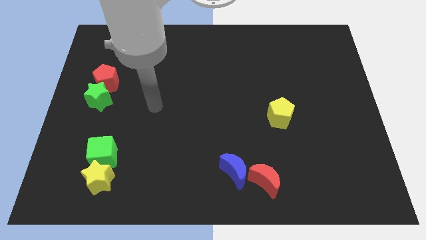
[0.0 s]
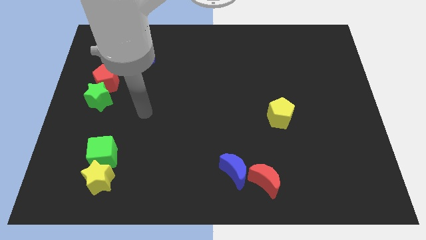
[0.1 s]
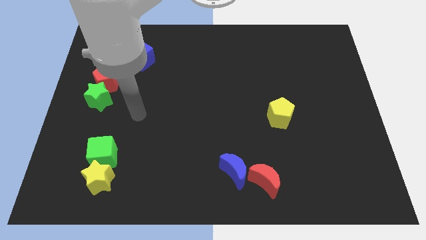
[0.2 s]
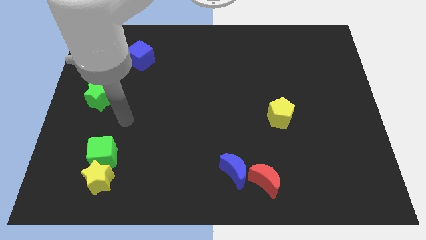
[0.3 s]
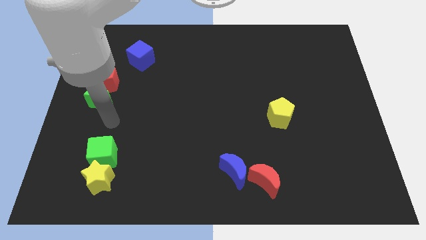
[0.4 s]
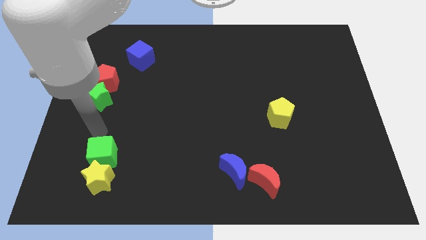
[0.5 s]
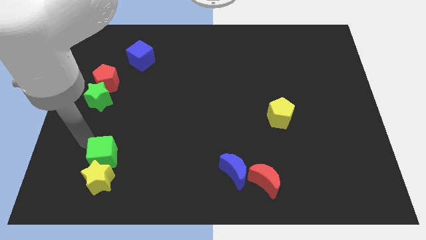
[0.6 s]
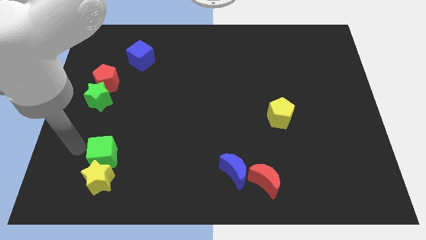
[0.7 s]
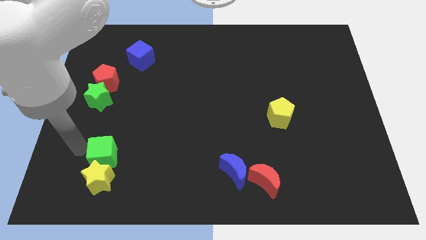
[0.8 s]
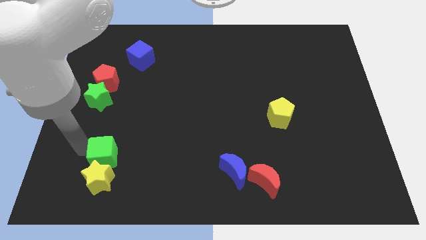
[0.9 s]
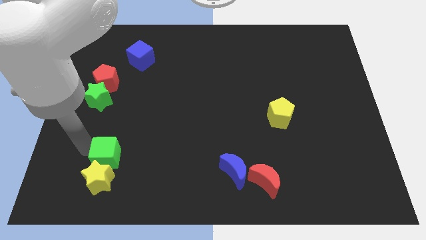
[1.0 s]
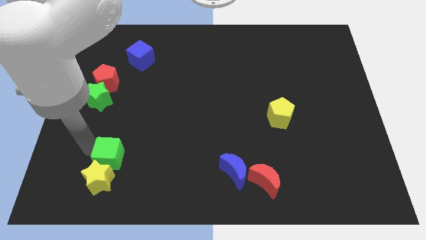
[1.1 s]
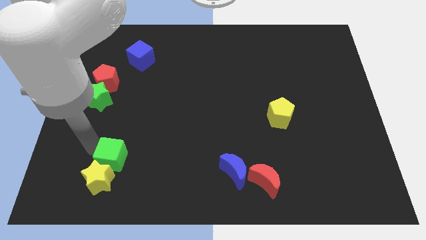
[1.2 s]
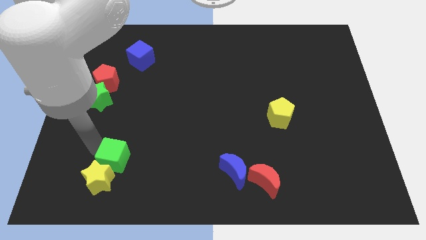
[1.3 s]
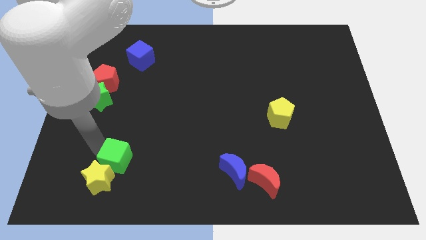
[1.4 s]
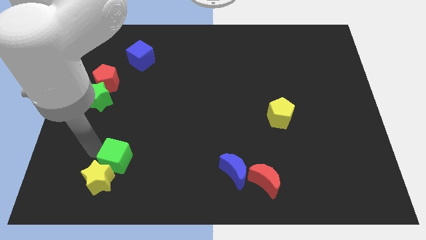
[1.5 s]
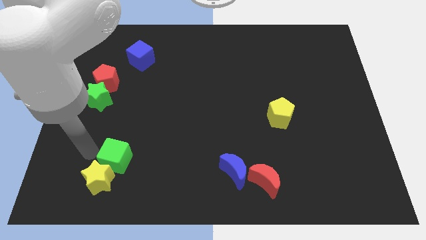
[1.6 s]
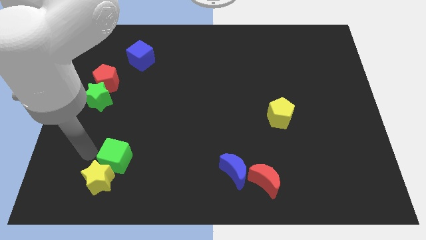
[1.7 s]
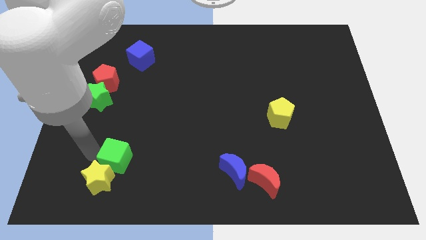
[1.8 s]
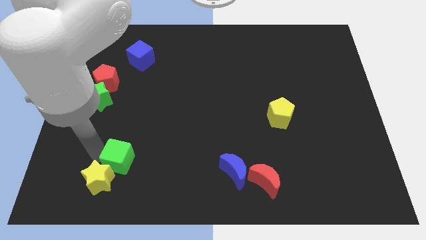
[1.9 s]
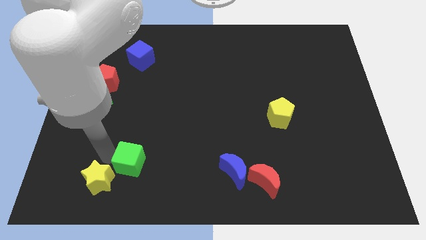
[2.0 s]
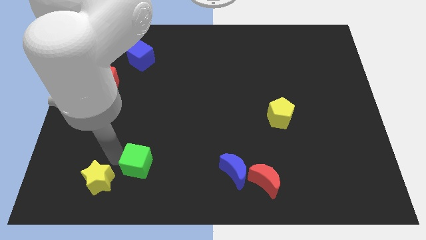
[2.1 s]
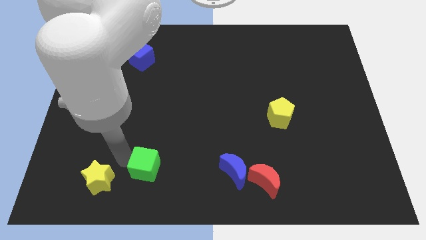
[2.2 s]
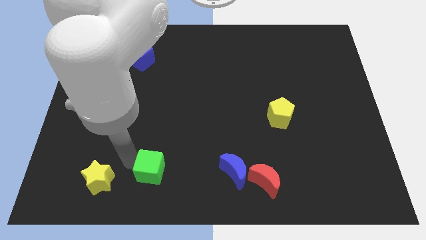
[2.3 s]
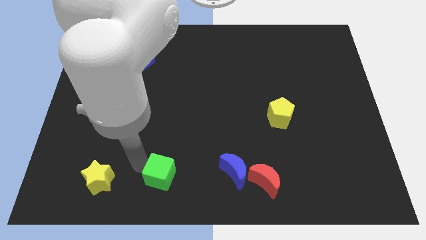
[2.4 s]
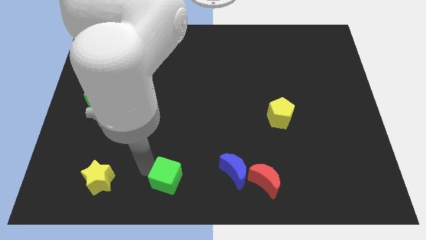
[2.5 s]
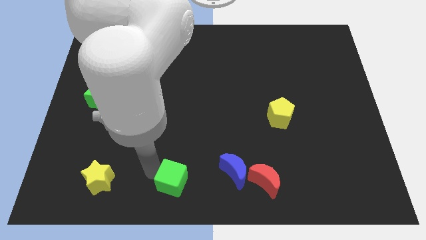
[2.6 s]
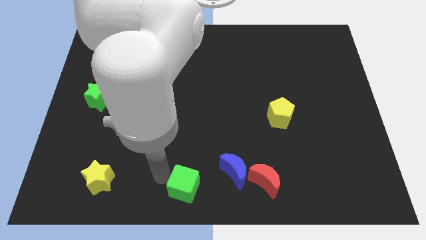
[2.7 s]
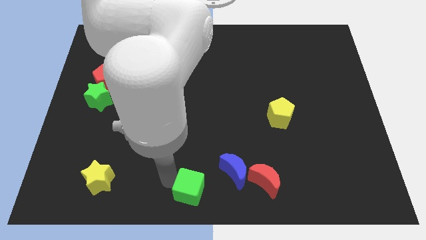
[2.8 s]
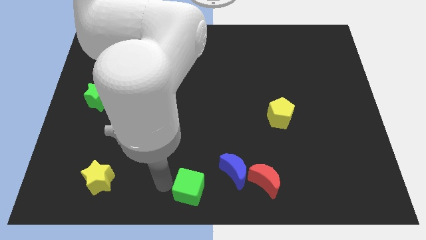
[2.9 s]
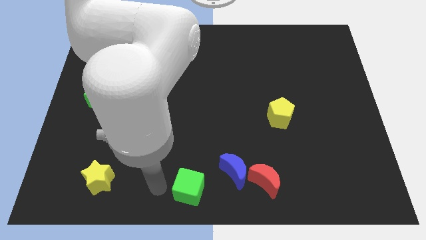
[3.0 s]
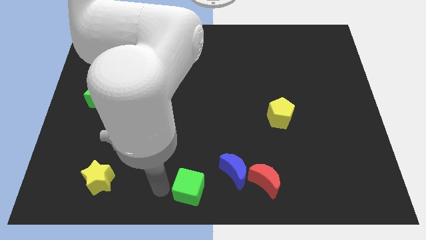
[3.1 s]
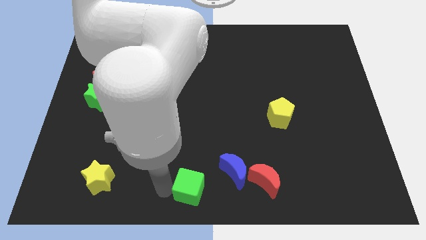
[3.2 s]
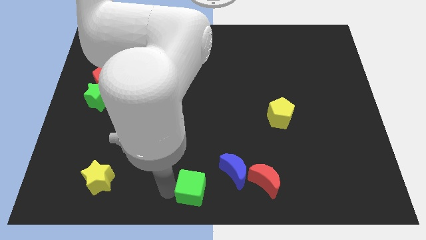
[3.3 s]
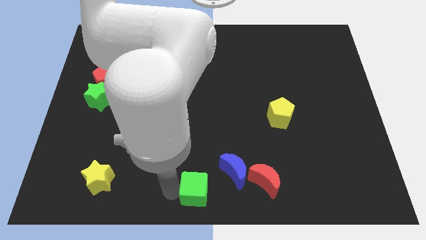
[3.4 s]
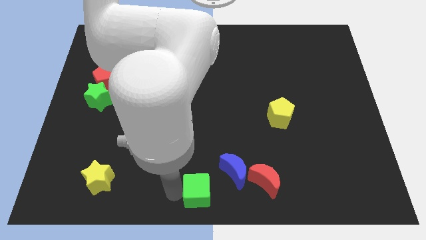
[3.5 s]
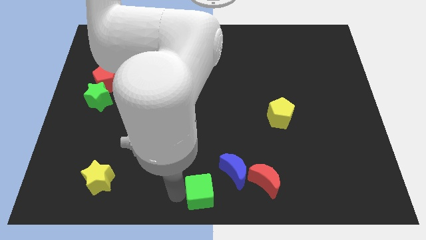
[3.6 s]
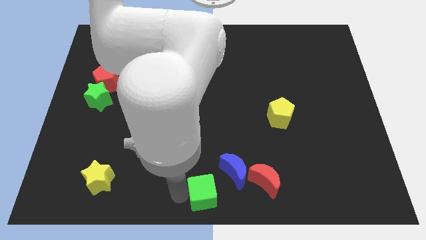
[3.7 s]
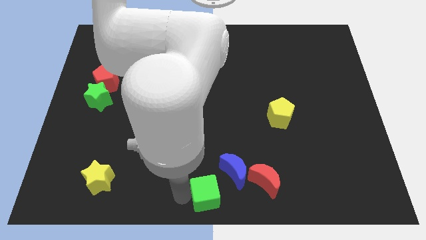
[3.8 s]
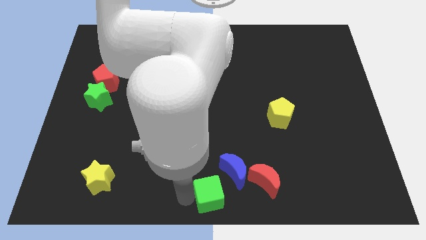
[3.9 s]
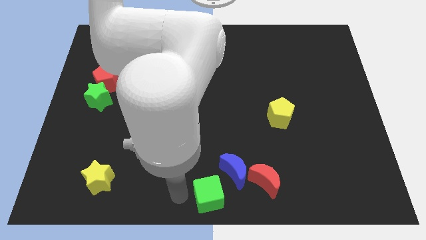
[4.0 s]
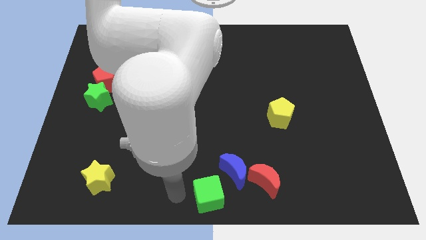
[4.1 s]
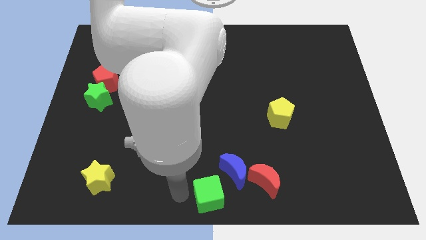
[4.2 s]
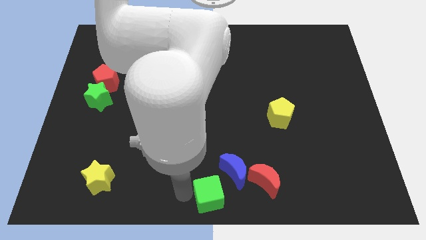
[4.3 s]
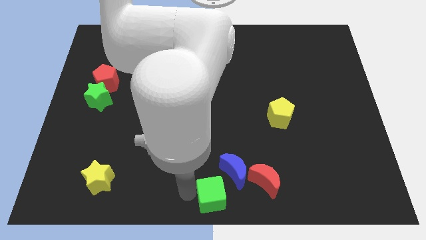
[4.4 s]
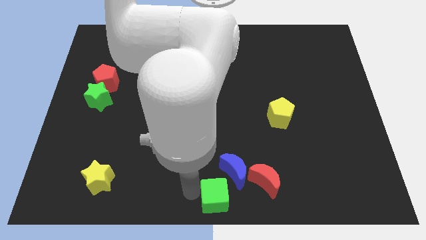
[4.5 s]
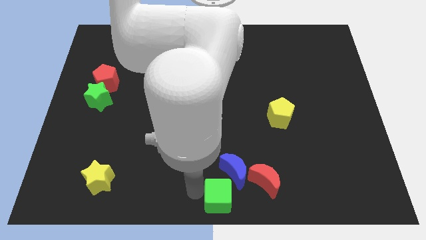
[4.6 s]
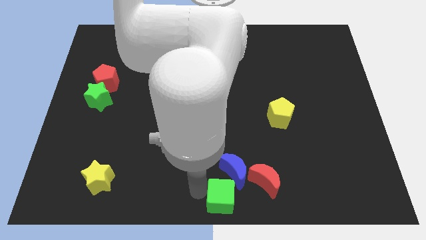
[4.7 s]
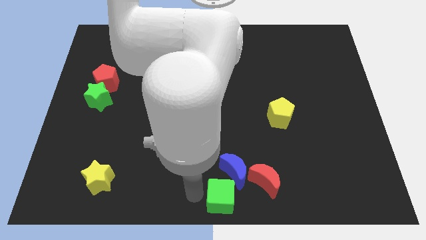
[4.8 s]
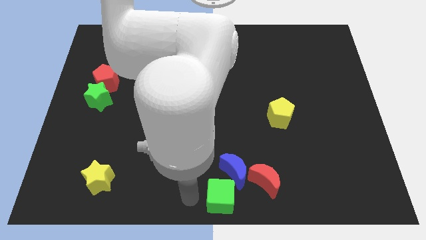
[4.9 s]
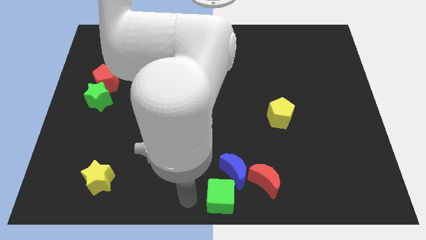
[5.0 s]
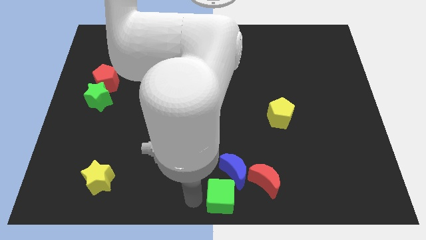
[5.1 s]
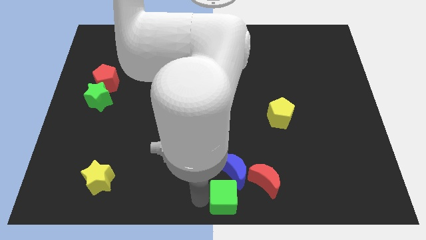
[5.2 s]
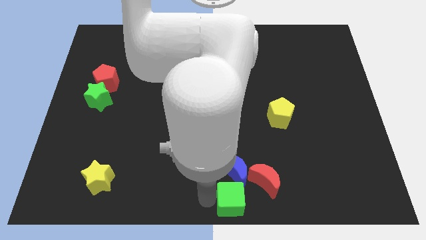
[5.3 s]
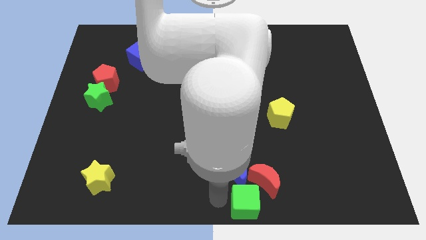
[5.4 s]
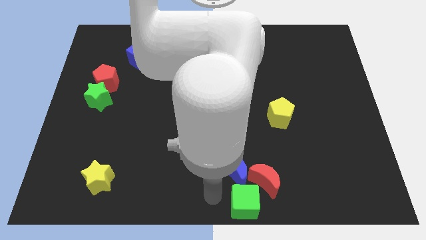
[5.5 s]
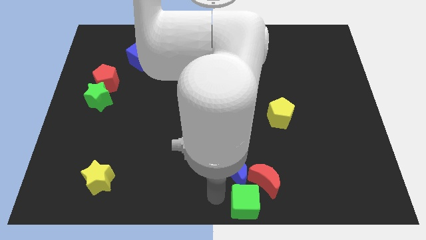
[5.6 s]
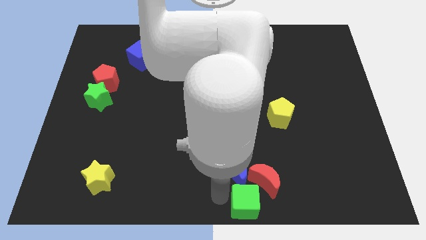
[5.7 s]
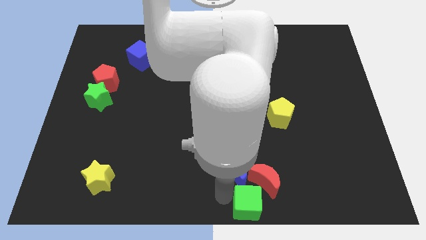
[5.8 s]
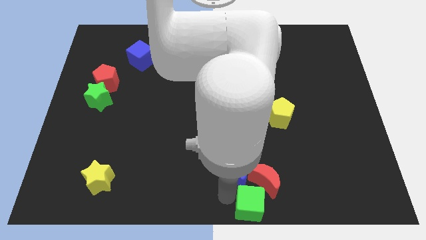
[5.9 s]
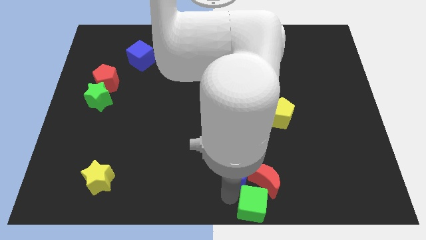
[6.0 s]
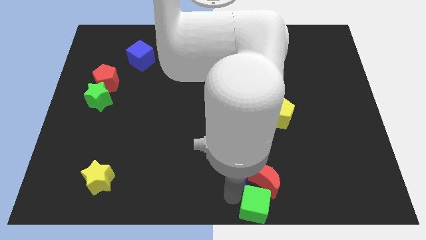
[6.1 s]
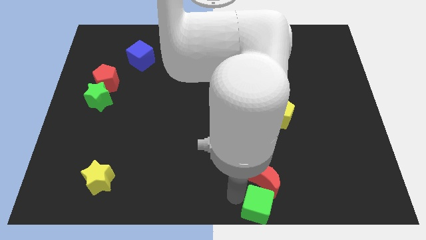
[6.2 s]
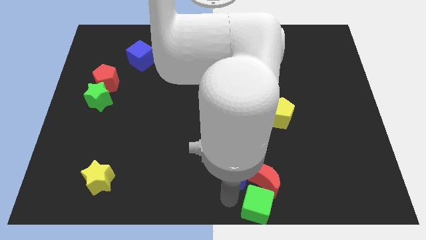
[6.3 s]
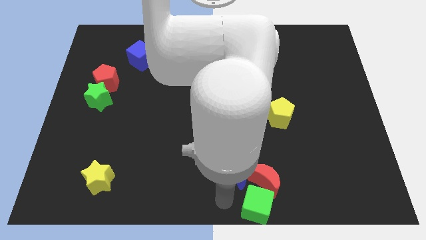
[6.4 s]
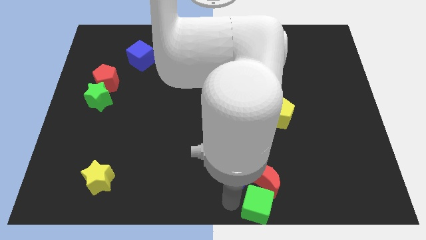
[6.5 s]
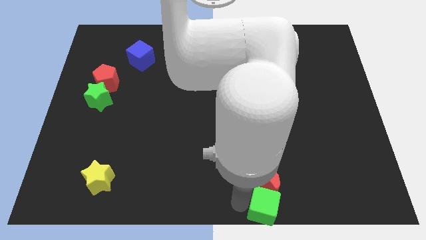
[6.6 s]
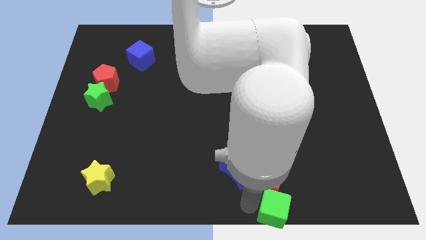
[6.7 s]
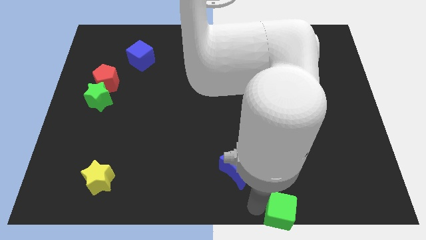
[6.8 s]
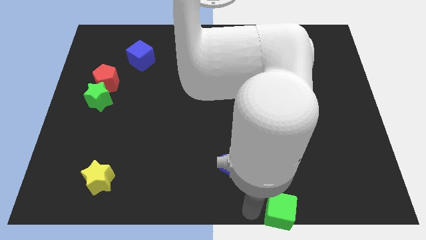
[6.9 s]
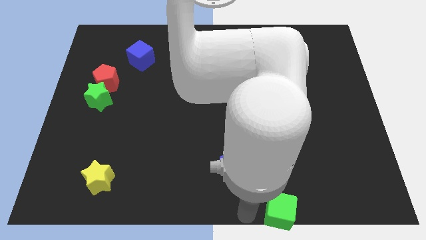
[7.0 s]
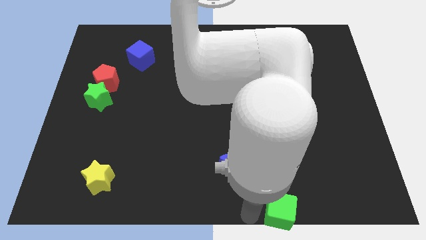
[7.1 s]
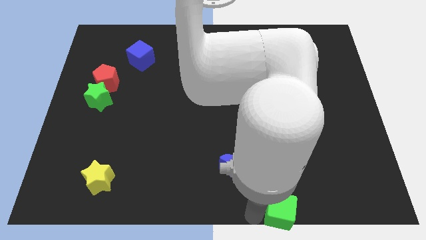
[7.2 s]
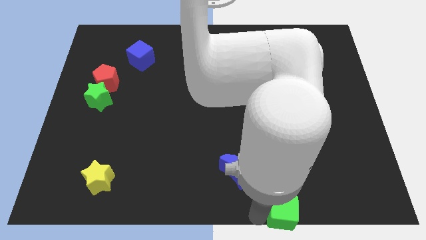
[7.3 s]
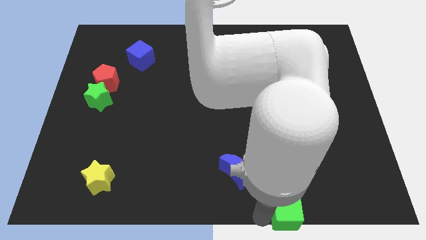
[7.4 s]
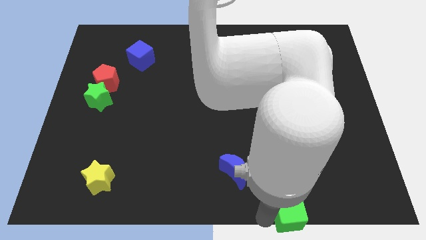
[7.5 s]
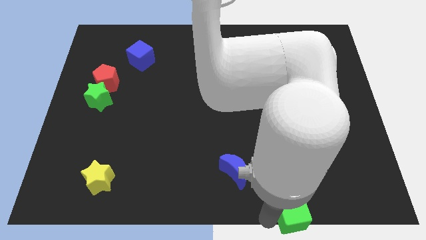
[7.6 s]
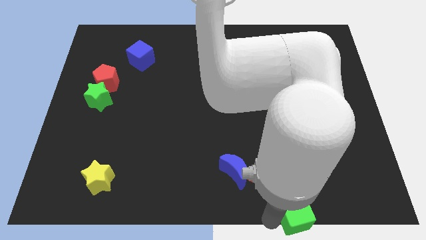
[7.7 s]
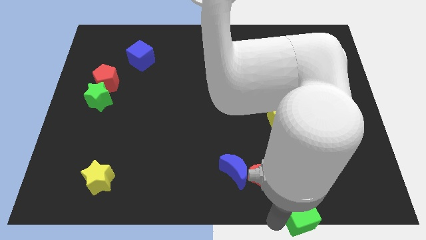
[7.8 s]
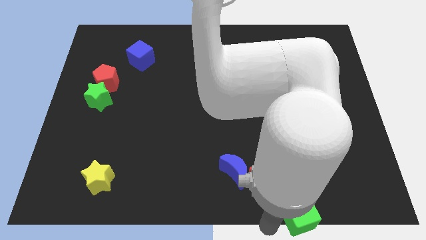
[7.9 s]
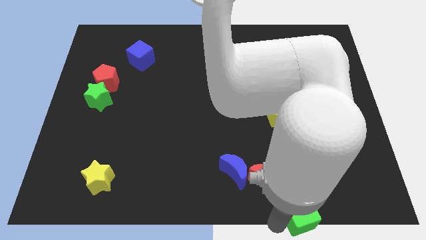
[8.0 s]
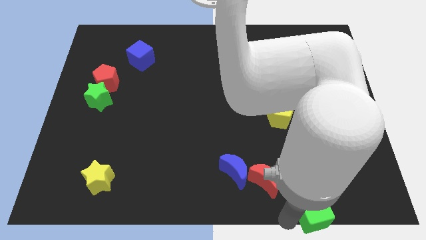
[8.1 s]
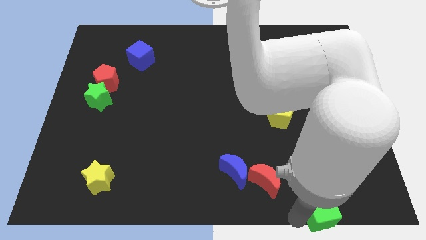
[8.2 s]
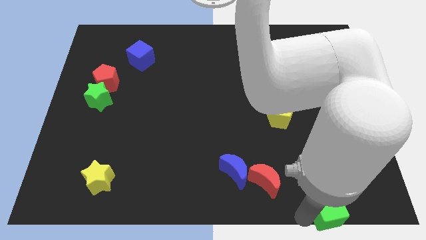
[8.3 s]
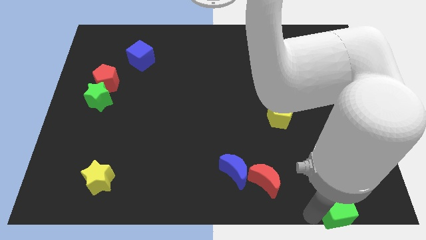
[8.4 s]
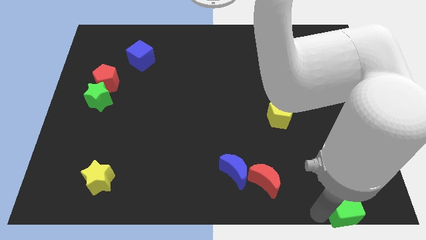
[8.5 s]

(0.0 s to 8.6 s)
put the green cube to the bottom right of the board
